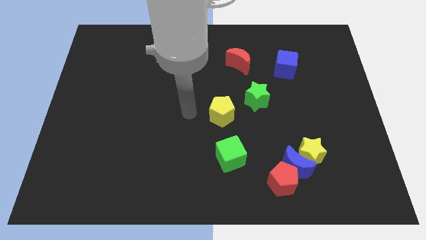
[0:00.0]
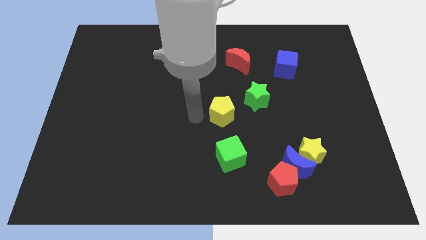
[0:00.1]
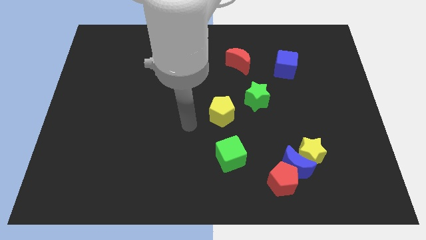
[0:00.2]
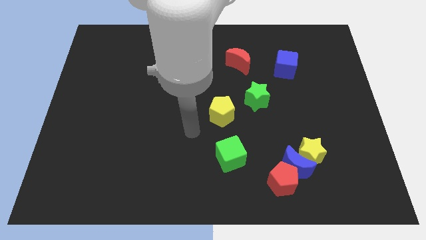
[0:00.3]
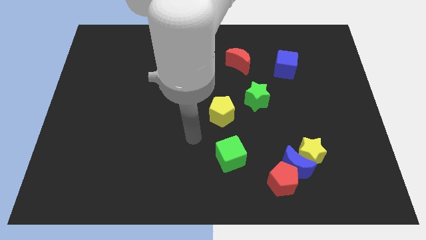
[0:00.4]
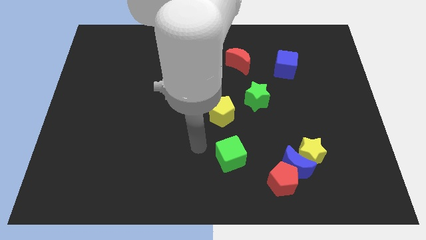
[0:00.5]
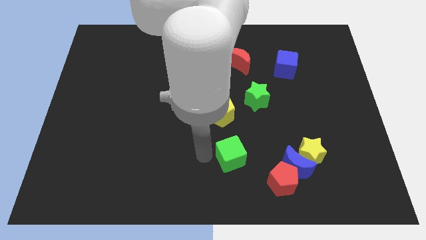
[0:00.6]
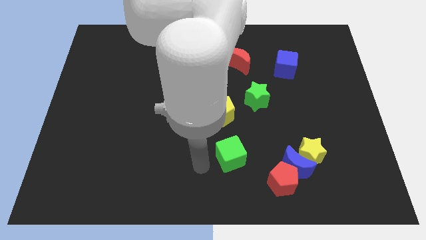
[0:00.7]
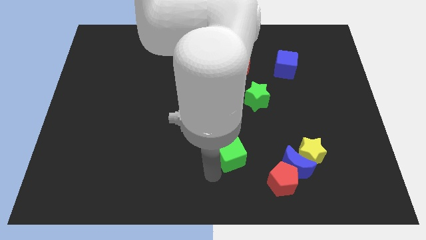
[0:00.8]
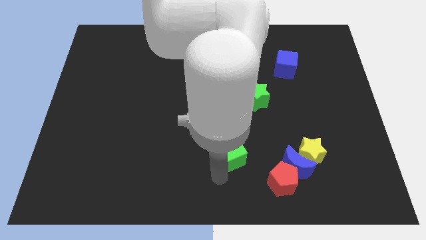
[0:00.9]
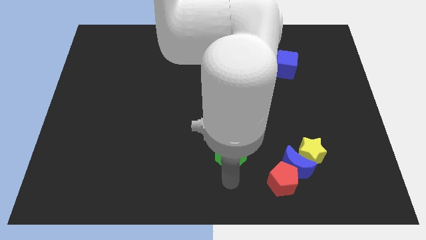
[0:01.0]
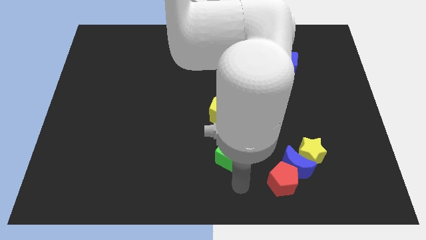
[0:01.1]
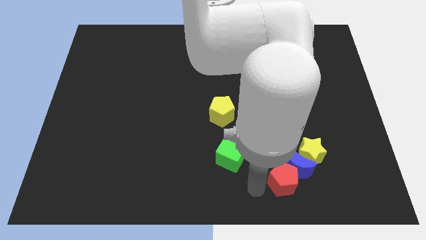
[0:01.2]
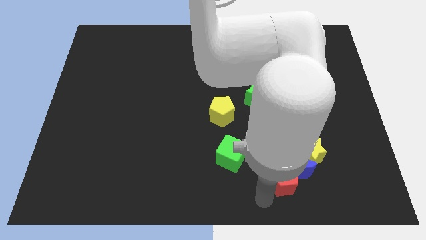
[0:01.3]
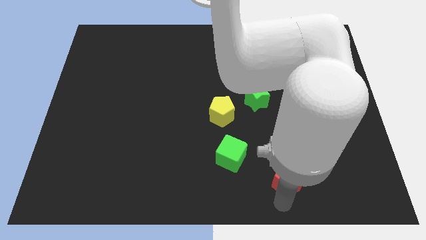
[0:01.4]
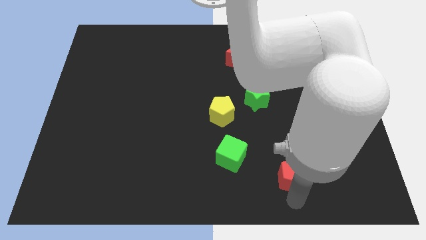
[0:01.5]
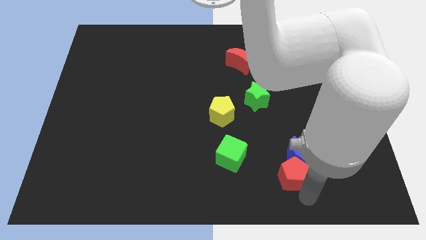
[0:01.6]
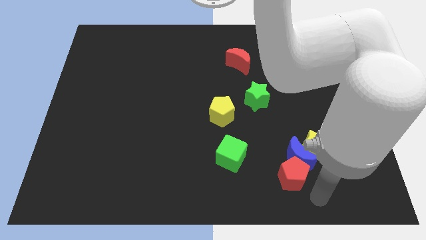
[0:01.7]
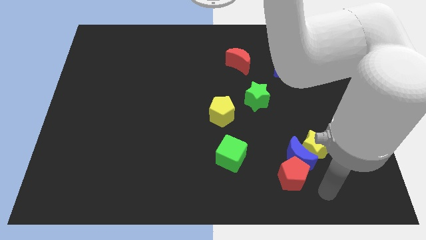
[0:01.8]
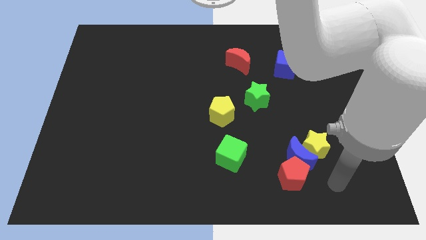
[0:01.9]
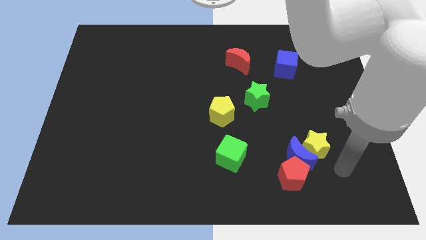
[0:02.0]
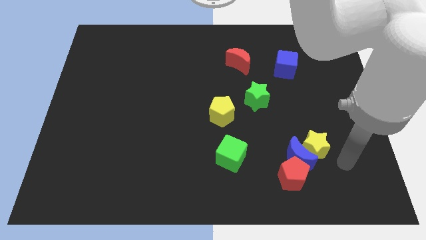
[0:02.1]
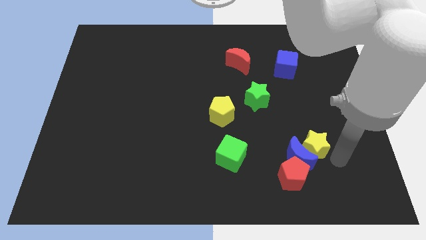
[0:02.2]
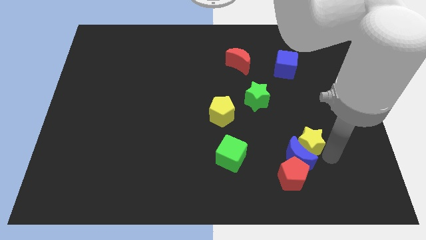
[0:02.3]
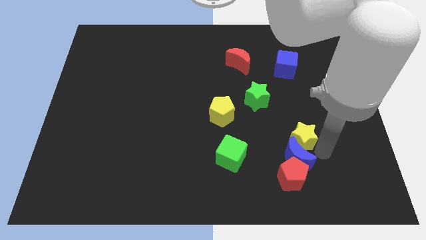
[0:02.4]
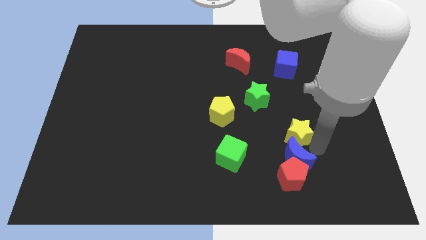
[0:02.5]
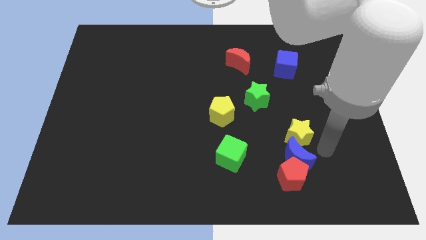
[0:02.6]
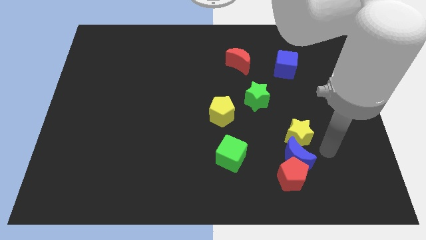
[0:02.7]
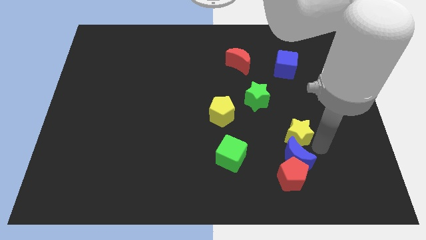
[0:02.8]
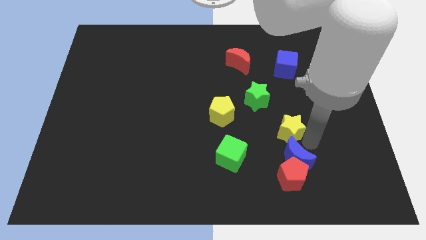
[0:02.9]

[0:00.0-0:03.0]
push the yellow star diagonally upwards and to the left a little

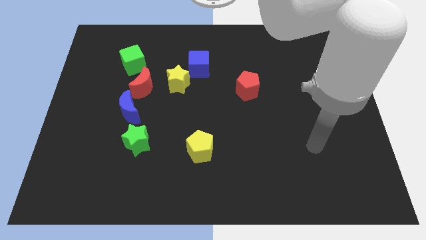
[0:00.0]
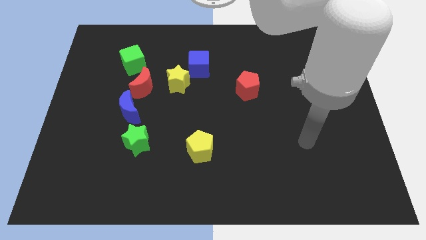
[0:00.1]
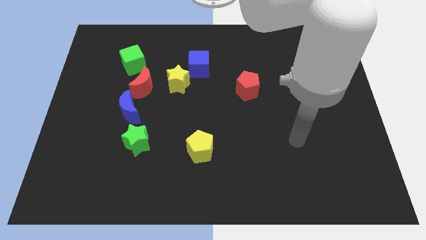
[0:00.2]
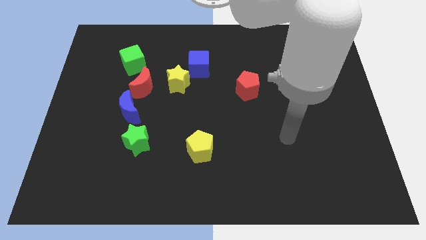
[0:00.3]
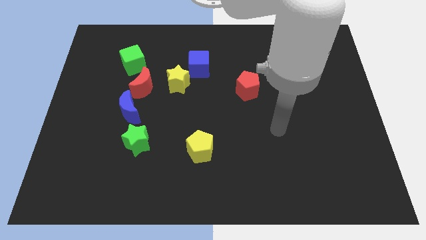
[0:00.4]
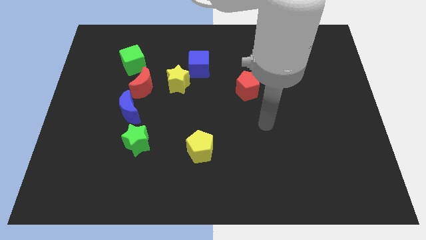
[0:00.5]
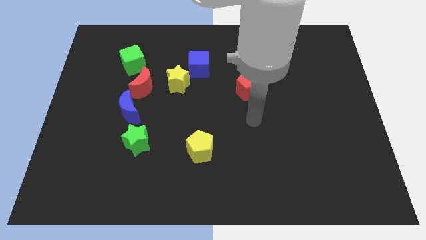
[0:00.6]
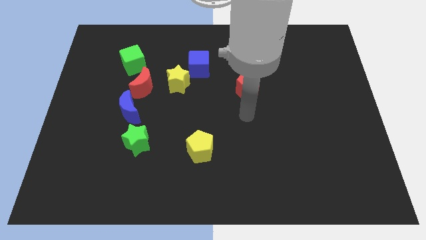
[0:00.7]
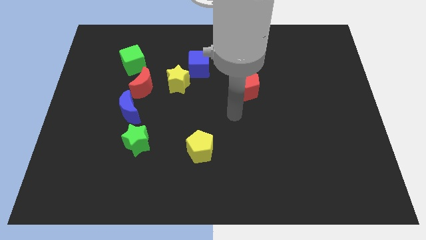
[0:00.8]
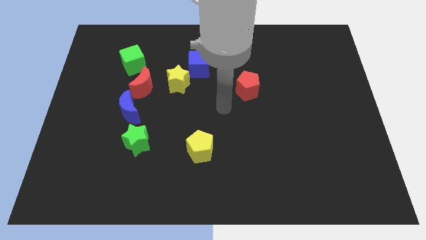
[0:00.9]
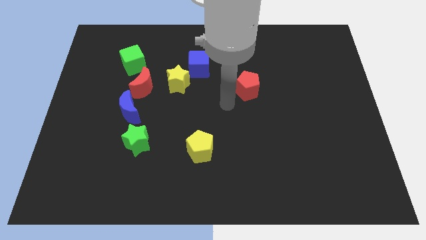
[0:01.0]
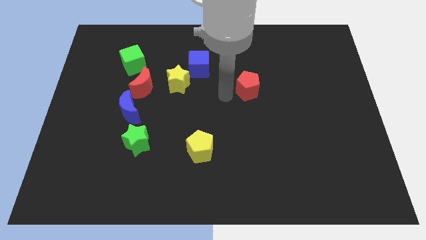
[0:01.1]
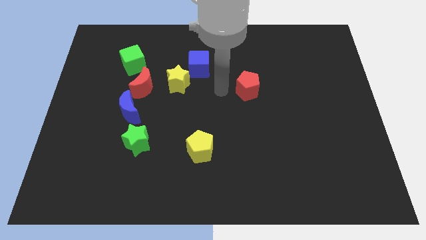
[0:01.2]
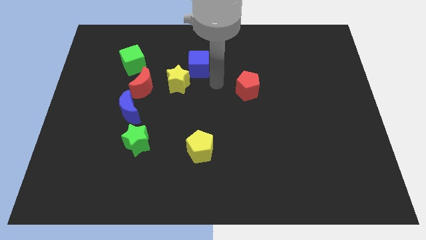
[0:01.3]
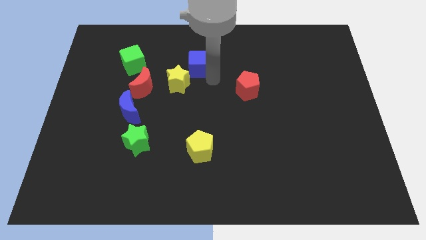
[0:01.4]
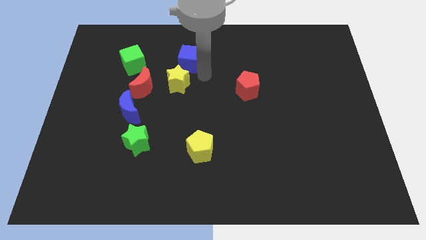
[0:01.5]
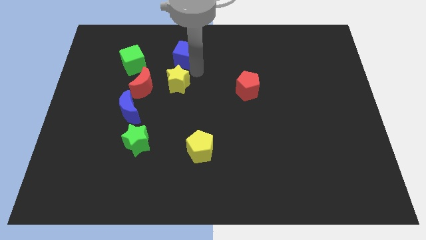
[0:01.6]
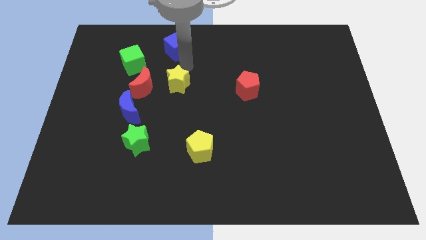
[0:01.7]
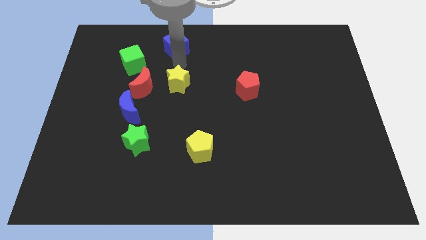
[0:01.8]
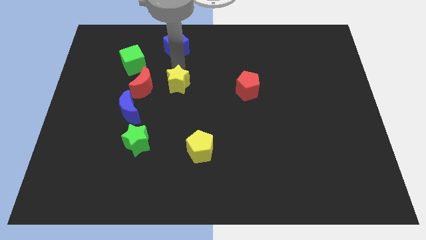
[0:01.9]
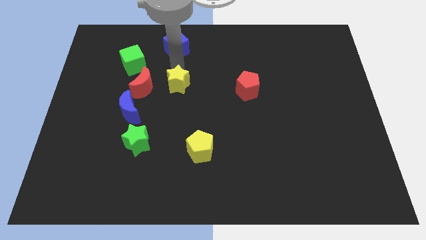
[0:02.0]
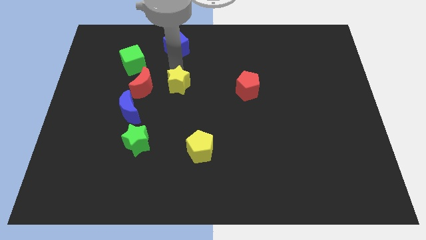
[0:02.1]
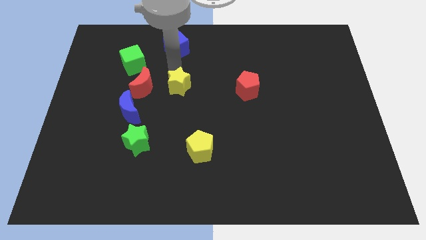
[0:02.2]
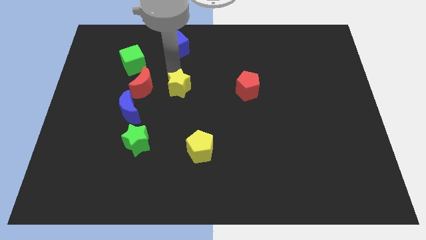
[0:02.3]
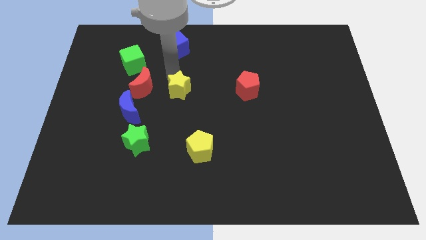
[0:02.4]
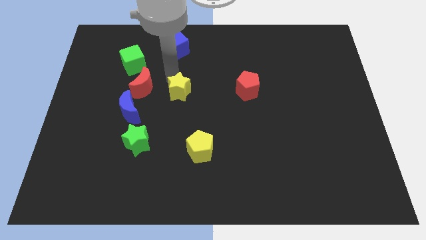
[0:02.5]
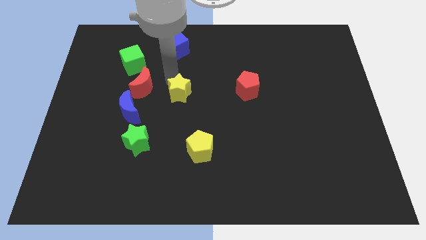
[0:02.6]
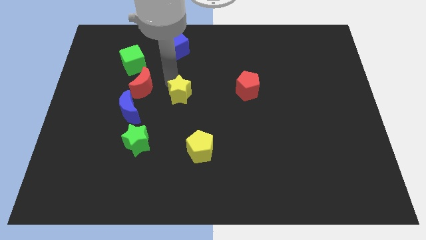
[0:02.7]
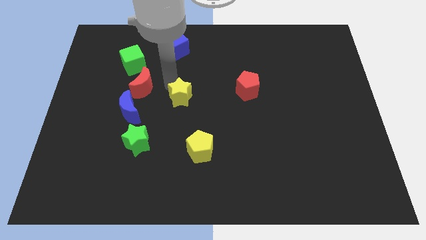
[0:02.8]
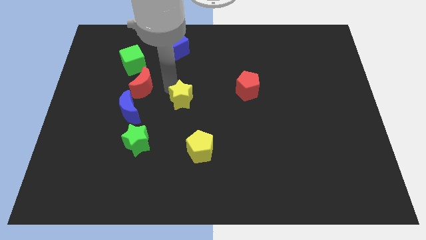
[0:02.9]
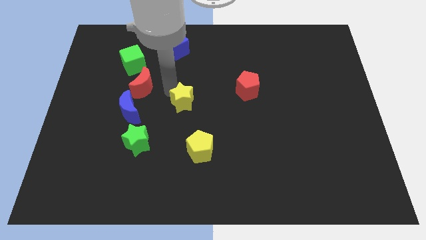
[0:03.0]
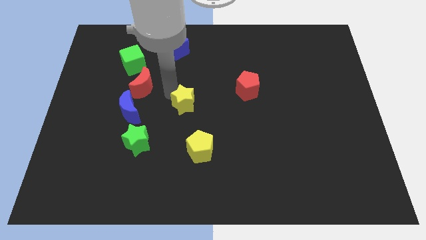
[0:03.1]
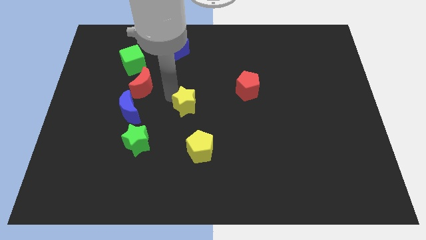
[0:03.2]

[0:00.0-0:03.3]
slide the yellow star down a bit

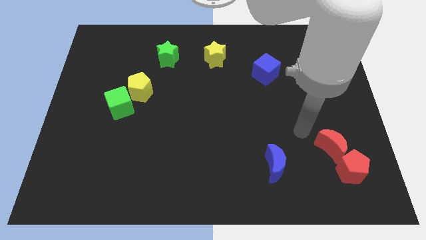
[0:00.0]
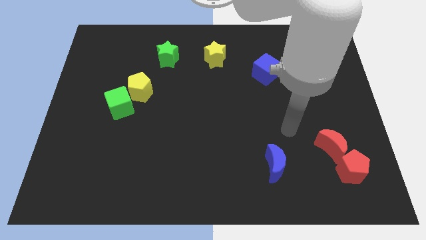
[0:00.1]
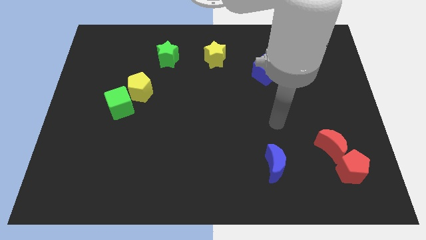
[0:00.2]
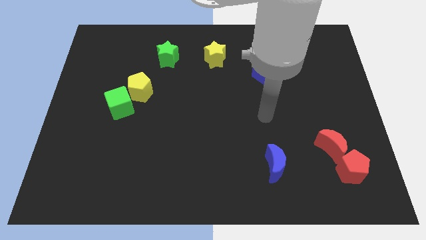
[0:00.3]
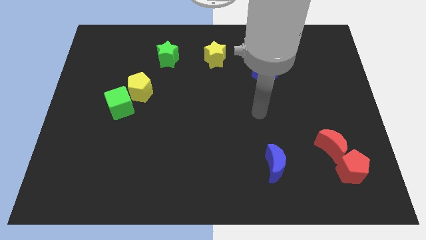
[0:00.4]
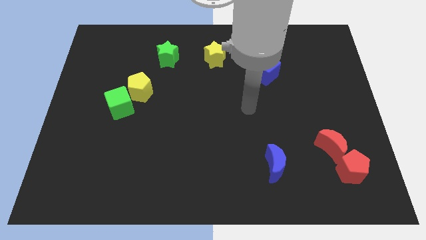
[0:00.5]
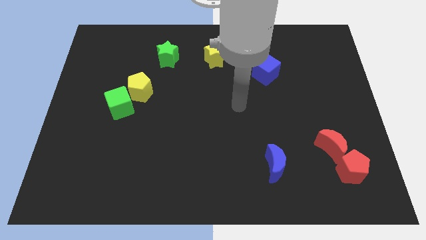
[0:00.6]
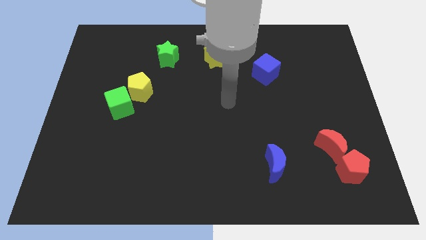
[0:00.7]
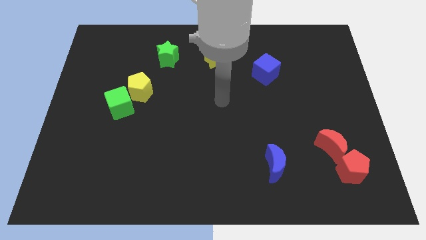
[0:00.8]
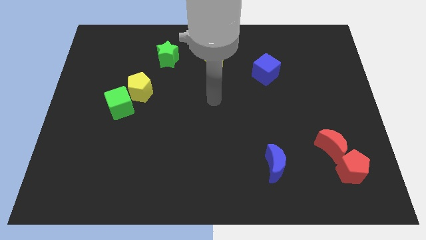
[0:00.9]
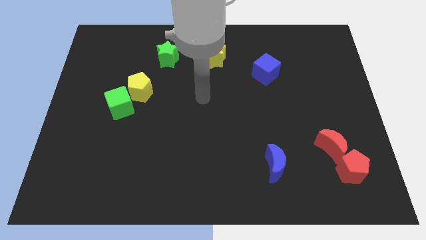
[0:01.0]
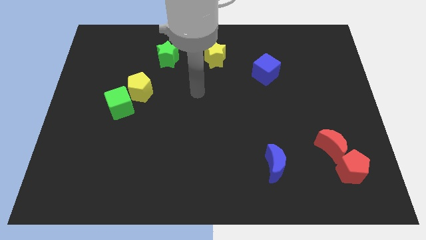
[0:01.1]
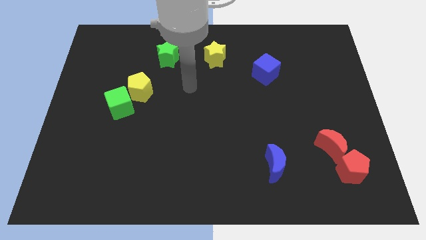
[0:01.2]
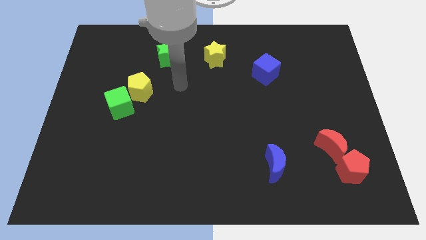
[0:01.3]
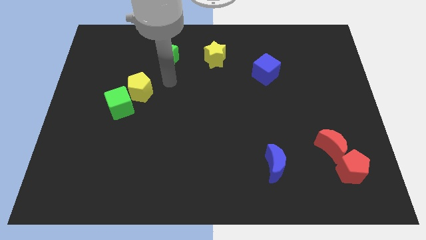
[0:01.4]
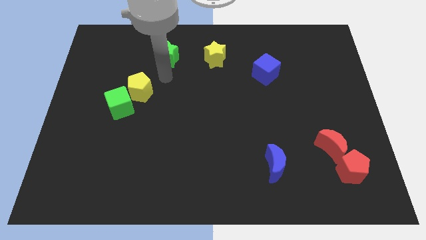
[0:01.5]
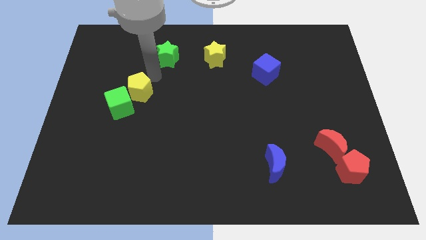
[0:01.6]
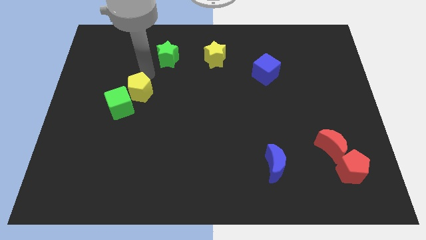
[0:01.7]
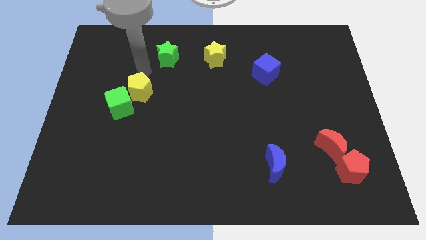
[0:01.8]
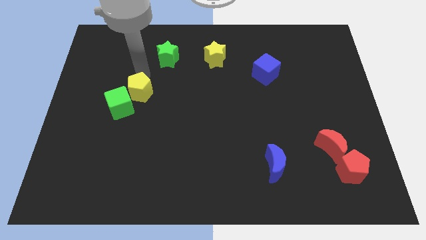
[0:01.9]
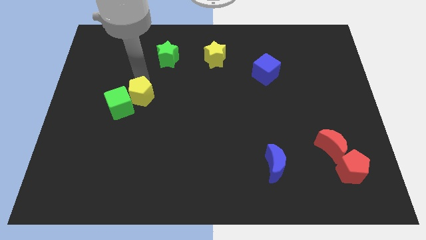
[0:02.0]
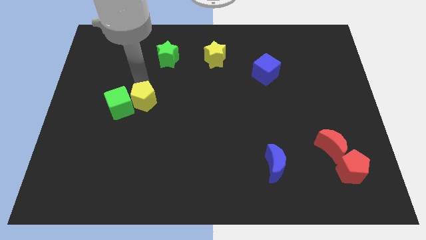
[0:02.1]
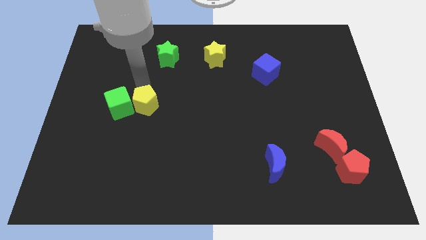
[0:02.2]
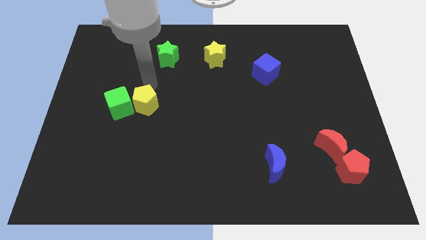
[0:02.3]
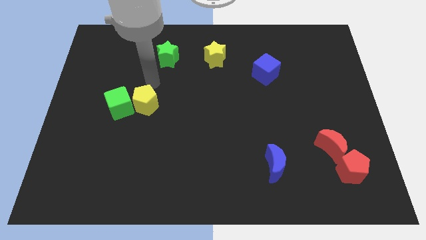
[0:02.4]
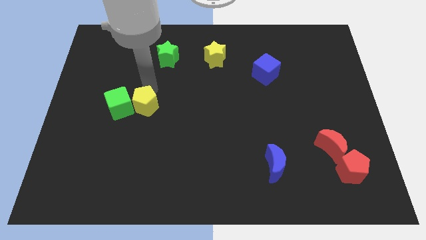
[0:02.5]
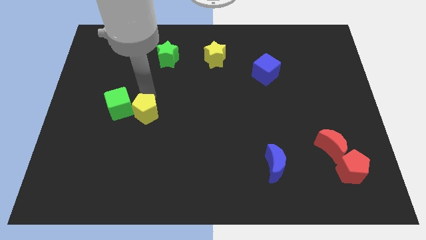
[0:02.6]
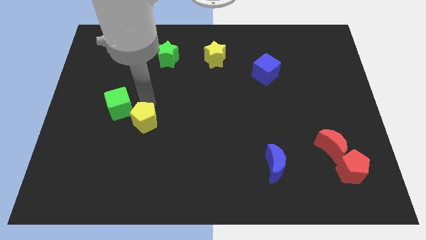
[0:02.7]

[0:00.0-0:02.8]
push the yellow pentagon a little bit downwards
